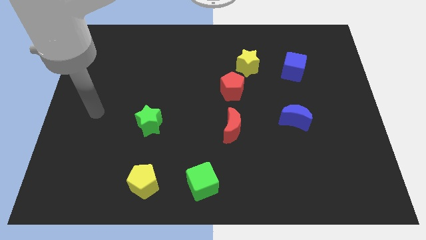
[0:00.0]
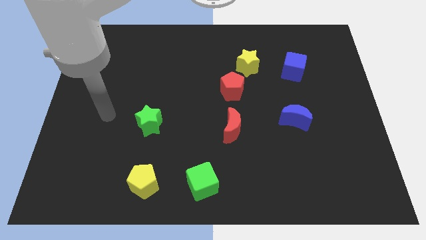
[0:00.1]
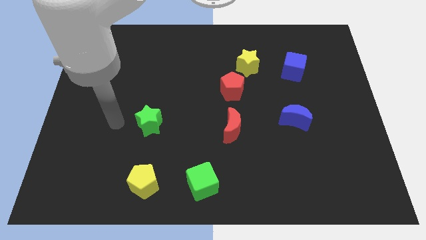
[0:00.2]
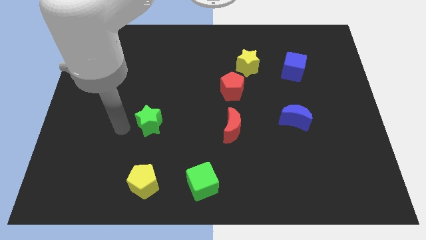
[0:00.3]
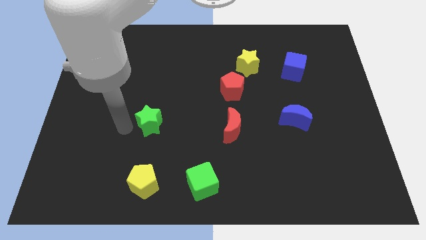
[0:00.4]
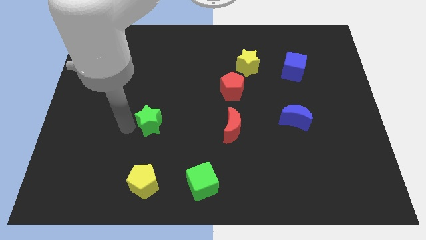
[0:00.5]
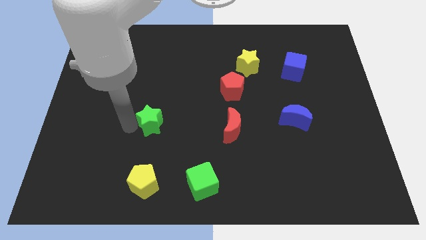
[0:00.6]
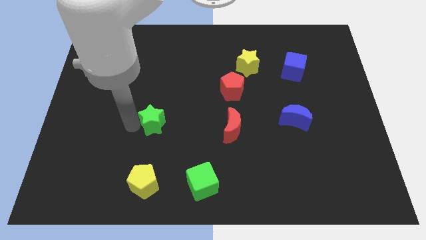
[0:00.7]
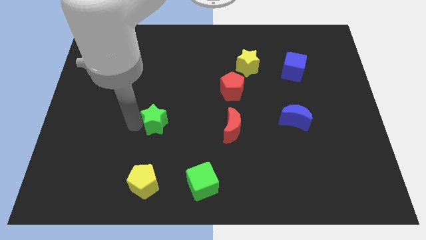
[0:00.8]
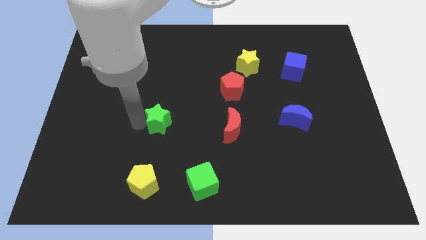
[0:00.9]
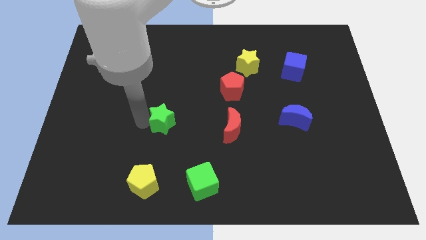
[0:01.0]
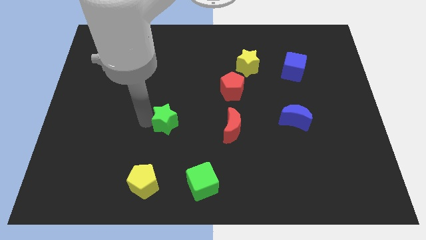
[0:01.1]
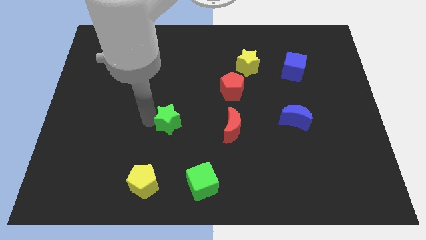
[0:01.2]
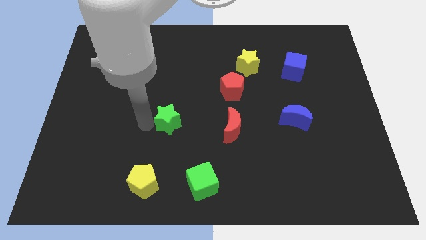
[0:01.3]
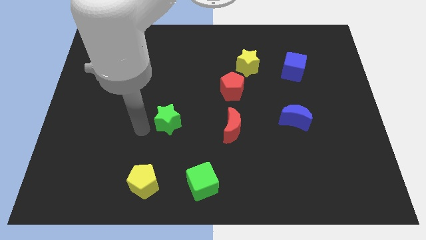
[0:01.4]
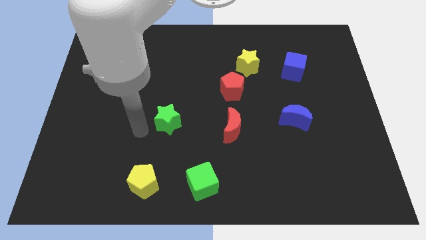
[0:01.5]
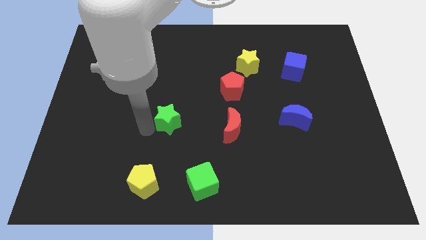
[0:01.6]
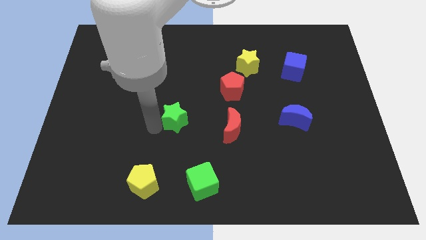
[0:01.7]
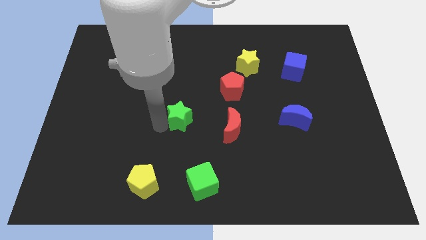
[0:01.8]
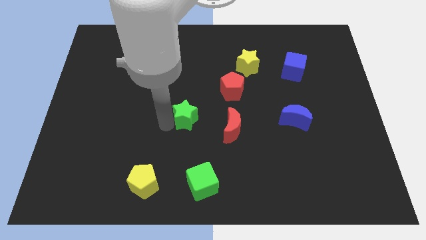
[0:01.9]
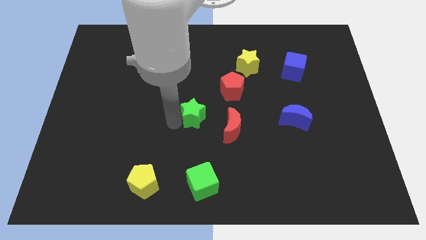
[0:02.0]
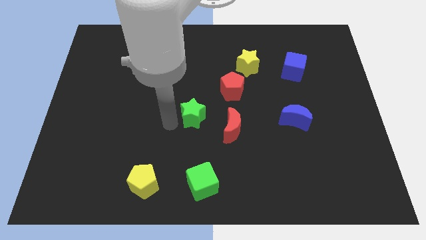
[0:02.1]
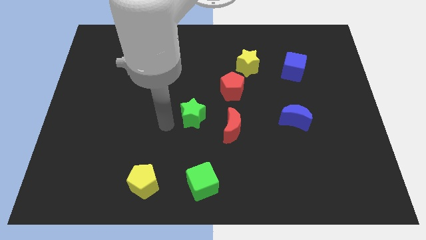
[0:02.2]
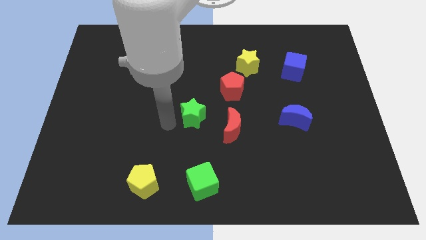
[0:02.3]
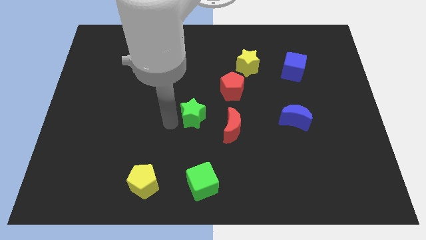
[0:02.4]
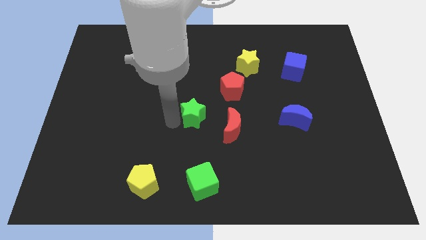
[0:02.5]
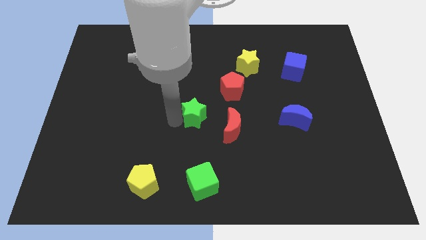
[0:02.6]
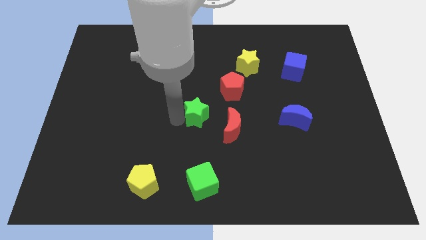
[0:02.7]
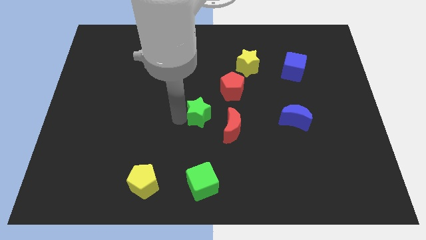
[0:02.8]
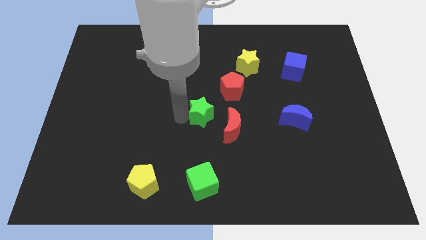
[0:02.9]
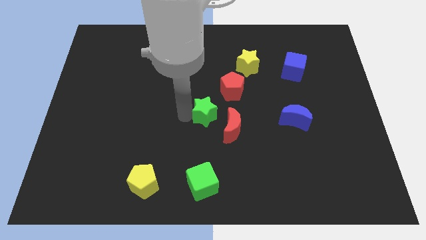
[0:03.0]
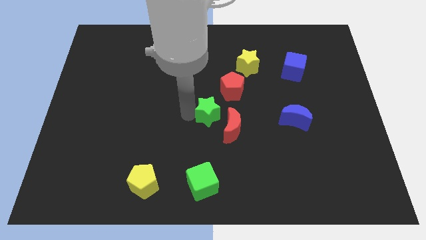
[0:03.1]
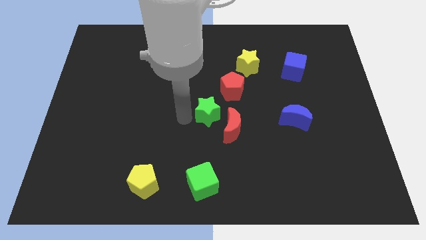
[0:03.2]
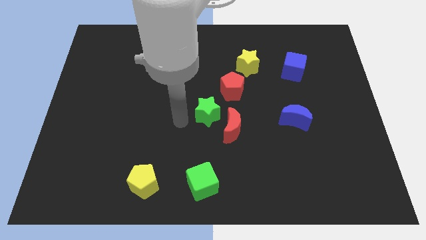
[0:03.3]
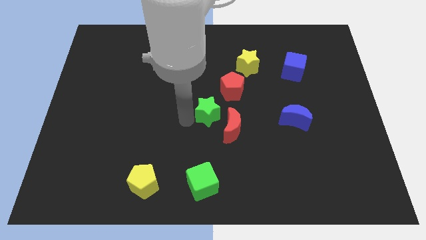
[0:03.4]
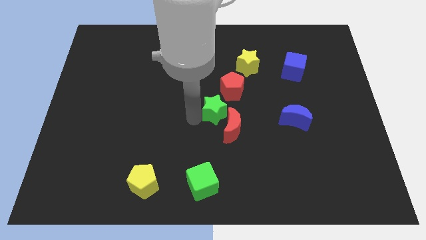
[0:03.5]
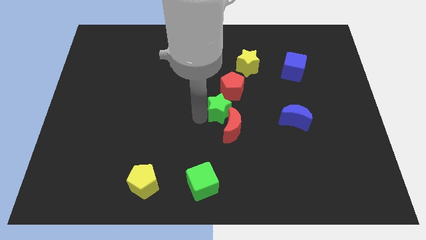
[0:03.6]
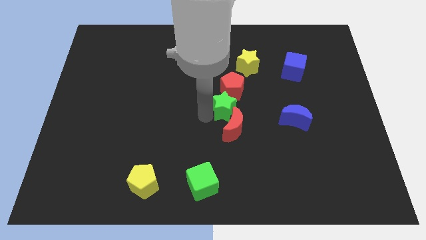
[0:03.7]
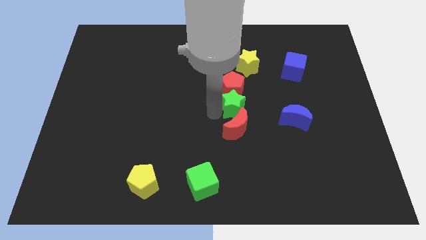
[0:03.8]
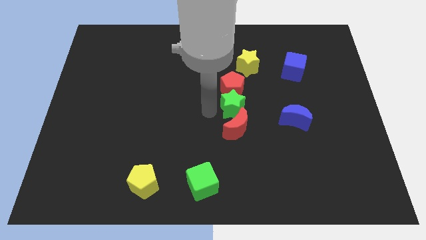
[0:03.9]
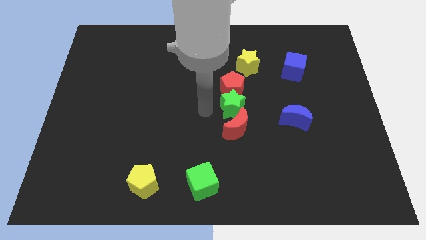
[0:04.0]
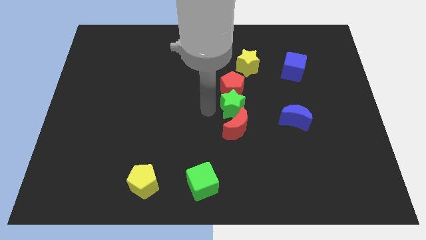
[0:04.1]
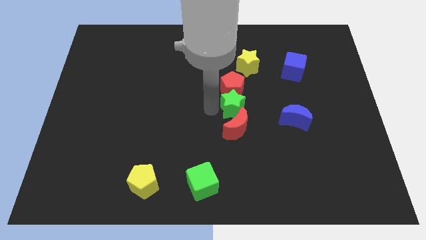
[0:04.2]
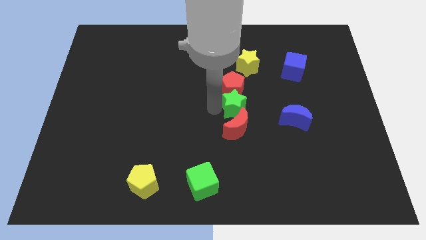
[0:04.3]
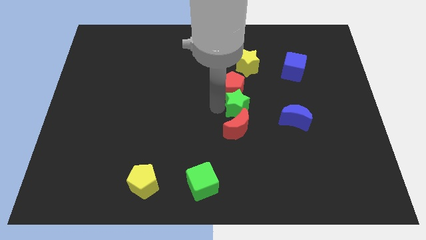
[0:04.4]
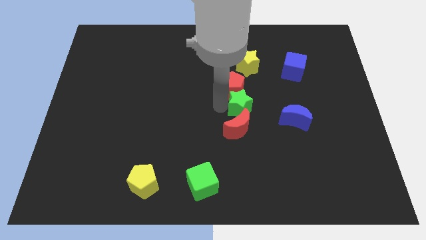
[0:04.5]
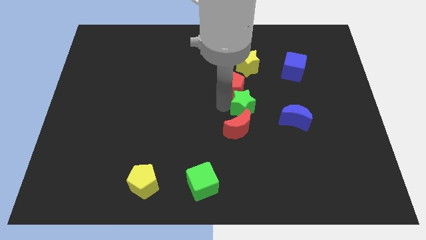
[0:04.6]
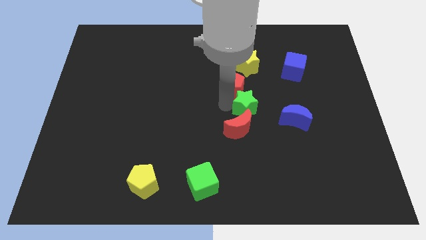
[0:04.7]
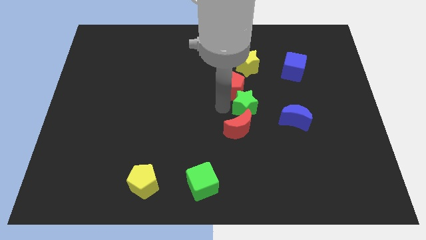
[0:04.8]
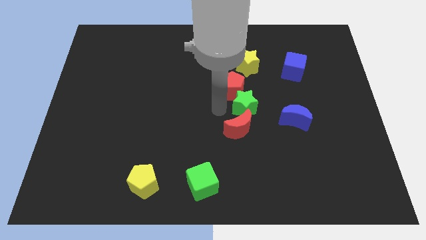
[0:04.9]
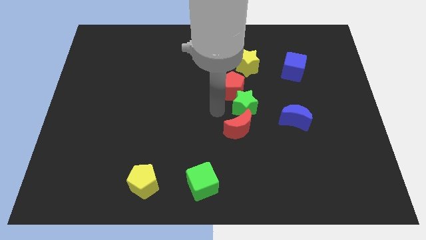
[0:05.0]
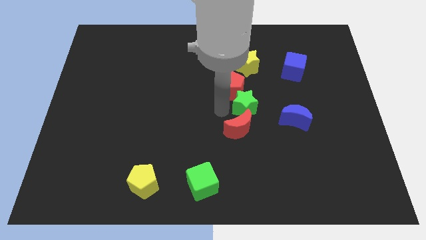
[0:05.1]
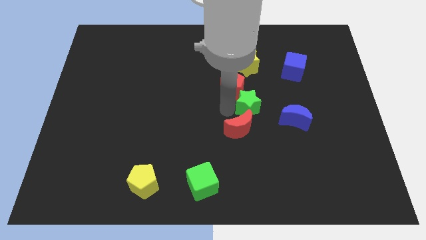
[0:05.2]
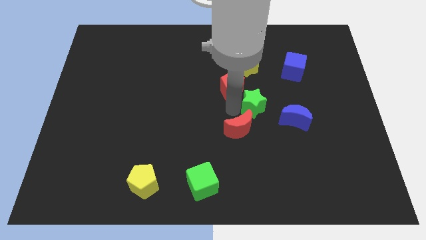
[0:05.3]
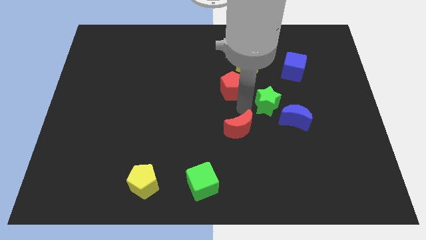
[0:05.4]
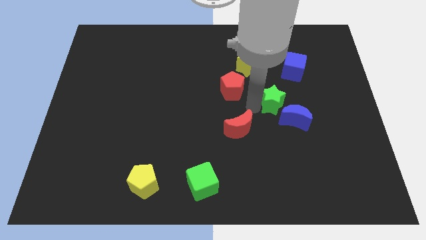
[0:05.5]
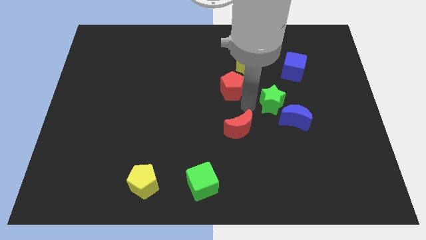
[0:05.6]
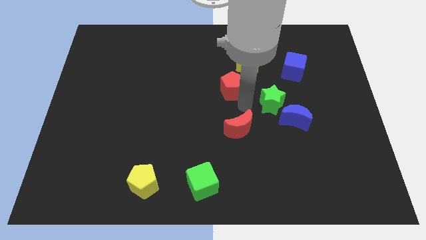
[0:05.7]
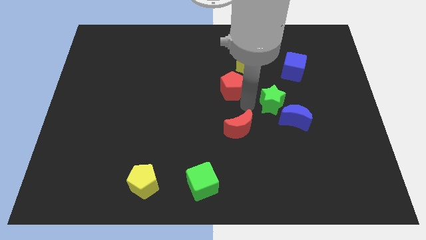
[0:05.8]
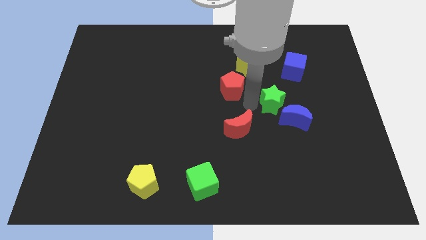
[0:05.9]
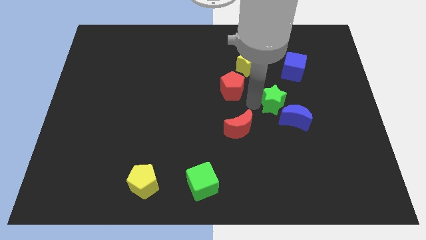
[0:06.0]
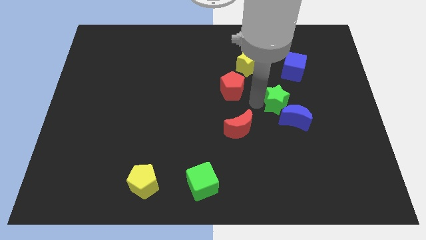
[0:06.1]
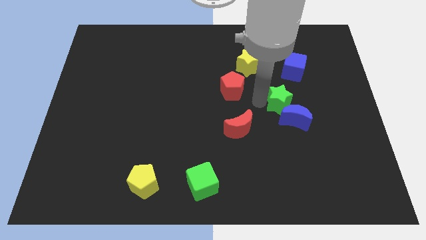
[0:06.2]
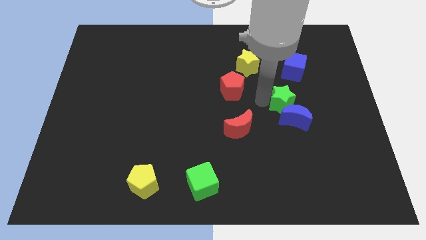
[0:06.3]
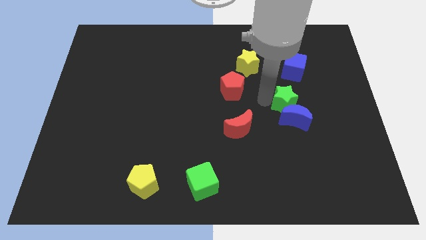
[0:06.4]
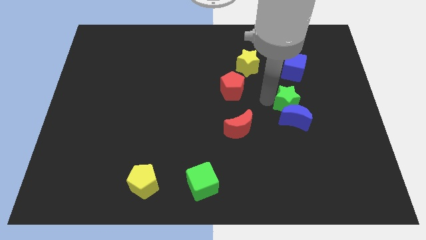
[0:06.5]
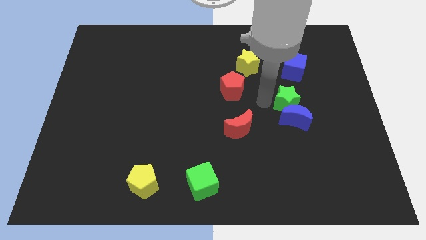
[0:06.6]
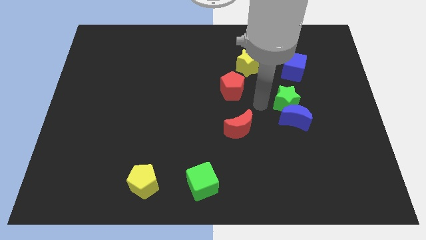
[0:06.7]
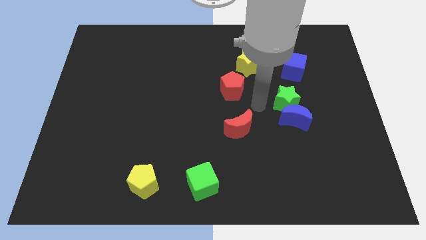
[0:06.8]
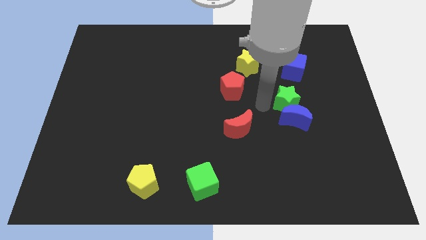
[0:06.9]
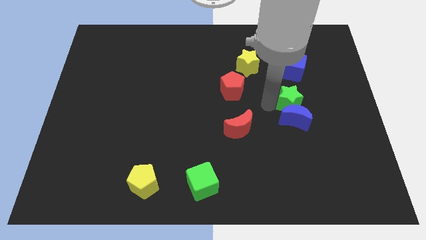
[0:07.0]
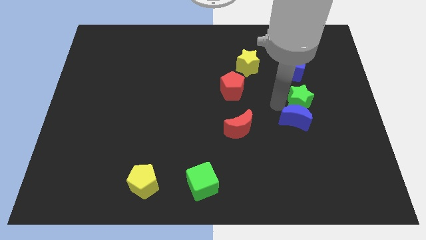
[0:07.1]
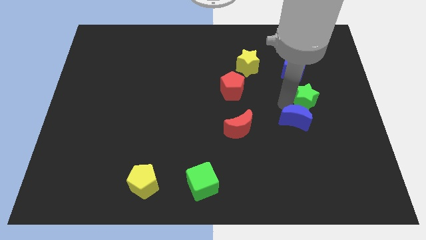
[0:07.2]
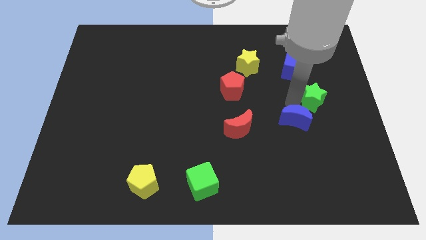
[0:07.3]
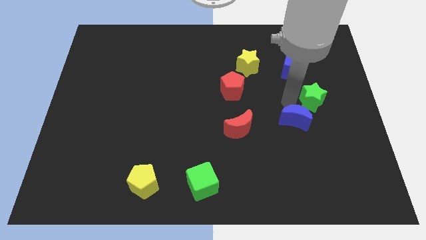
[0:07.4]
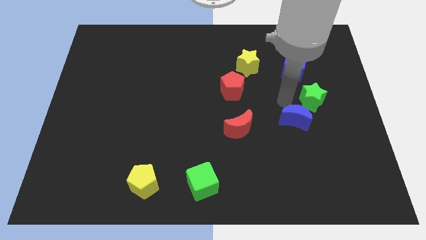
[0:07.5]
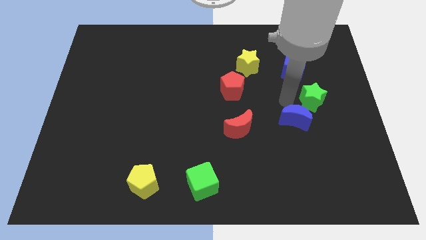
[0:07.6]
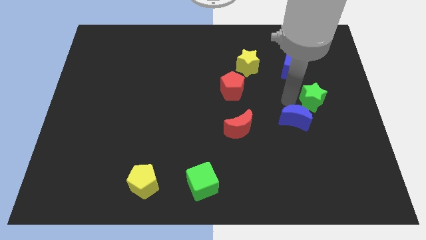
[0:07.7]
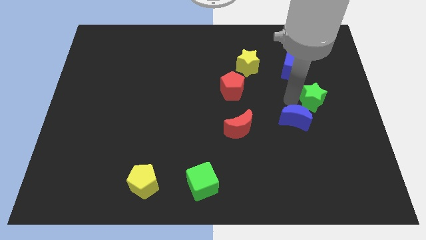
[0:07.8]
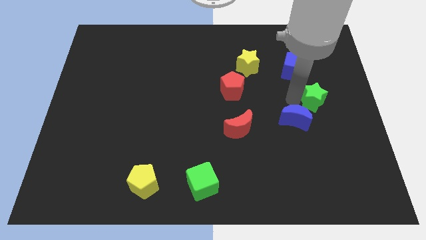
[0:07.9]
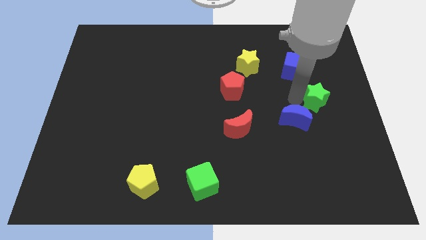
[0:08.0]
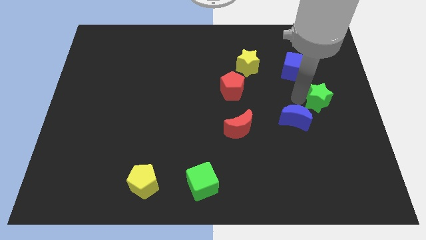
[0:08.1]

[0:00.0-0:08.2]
put the green star to the right side of the board
